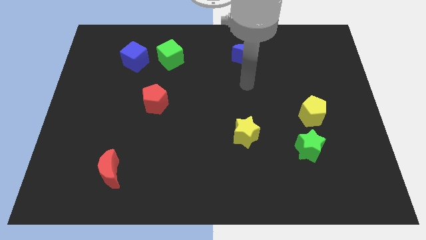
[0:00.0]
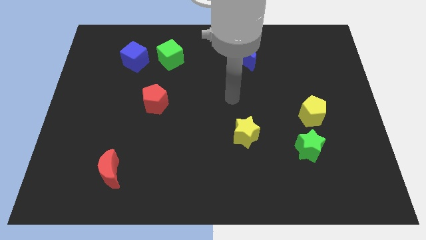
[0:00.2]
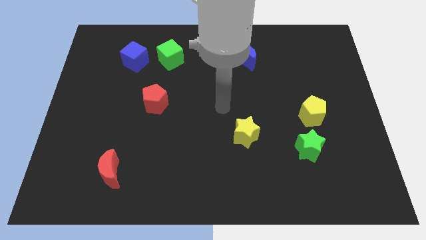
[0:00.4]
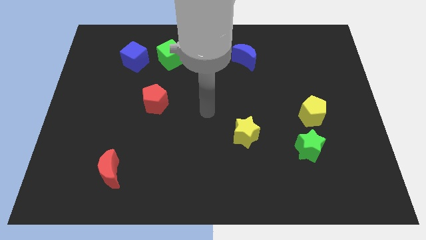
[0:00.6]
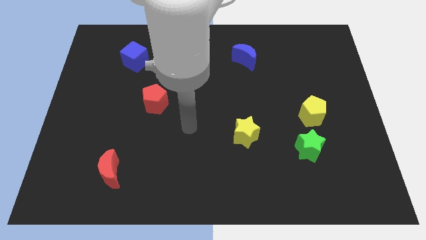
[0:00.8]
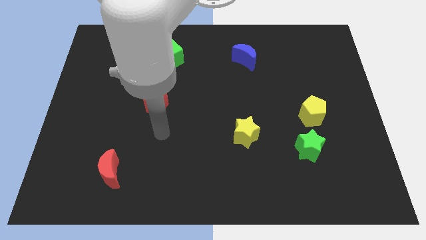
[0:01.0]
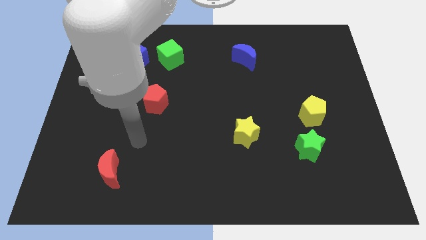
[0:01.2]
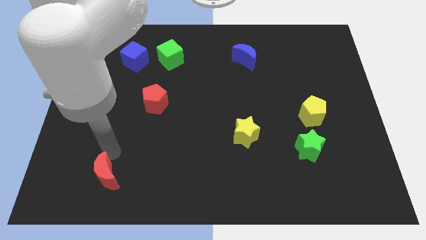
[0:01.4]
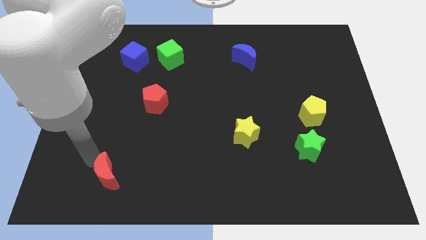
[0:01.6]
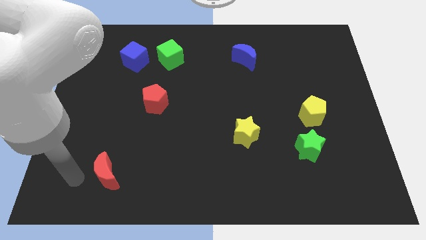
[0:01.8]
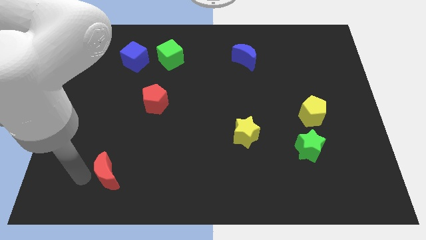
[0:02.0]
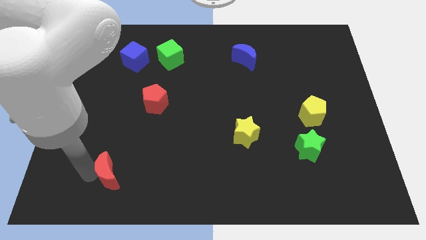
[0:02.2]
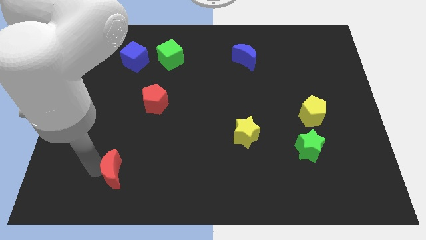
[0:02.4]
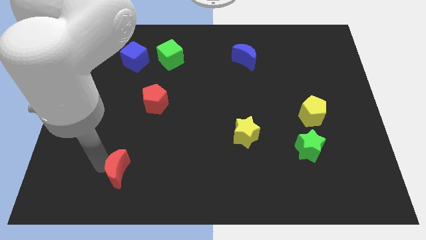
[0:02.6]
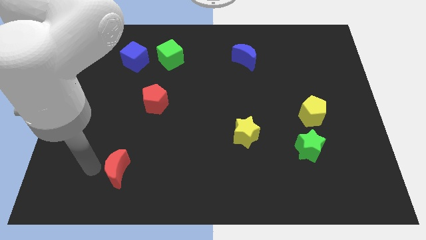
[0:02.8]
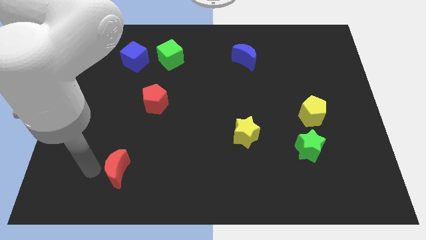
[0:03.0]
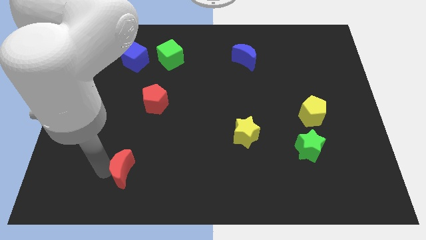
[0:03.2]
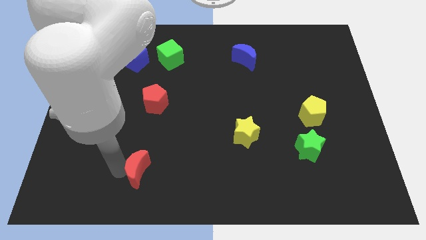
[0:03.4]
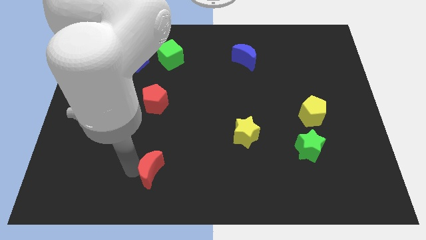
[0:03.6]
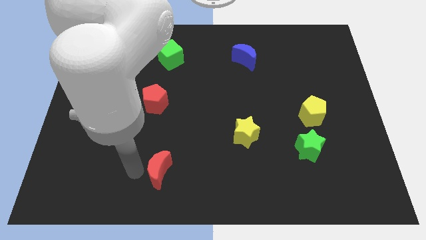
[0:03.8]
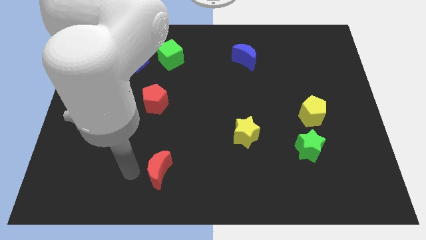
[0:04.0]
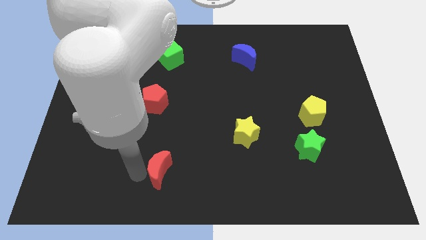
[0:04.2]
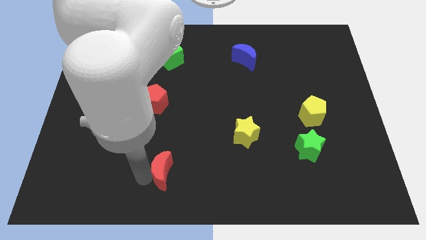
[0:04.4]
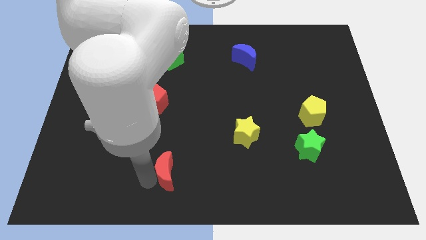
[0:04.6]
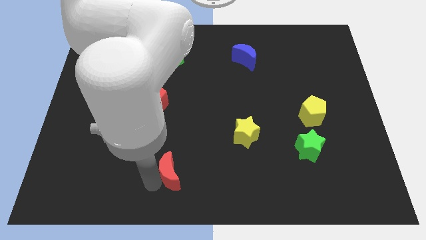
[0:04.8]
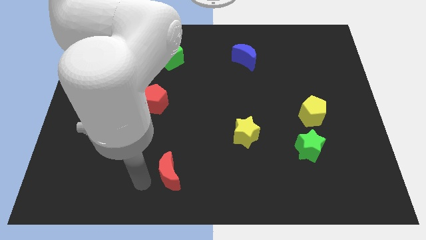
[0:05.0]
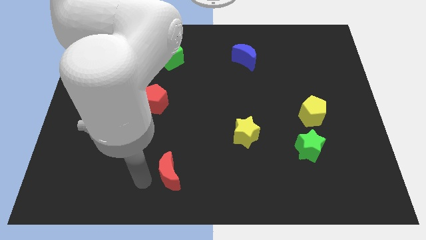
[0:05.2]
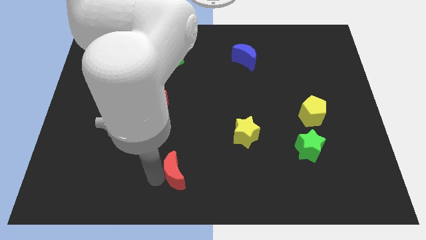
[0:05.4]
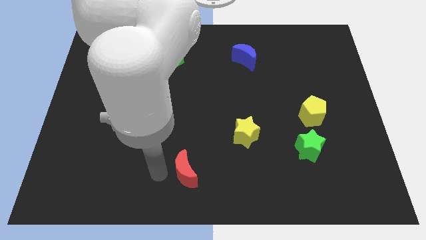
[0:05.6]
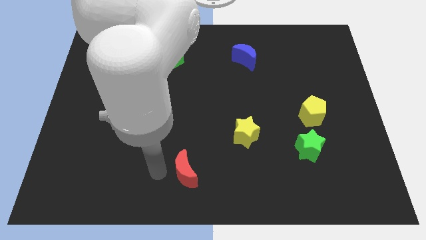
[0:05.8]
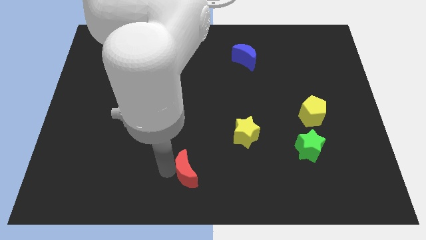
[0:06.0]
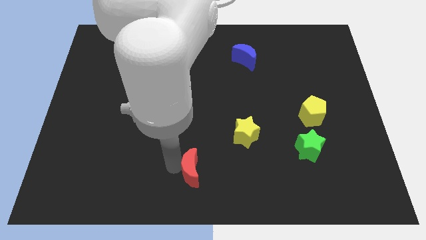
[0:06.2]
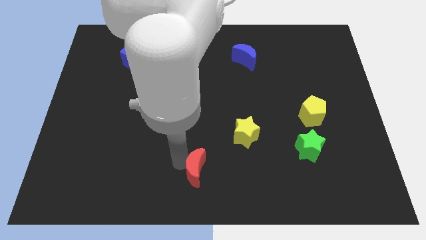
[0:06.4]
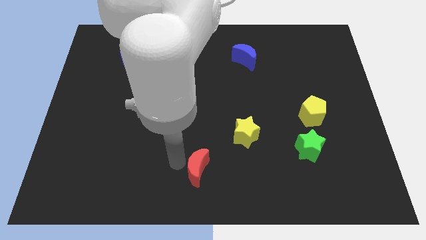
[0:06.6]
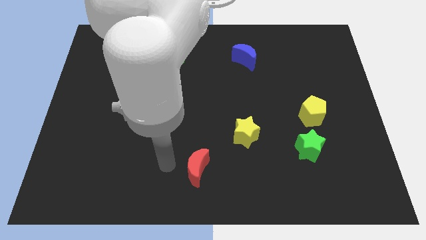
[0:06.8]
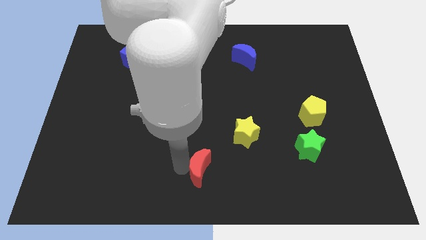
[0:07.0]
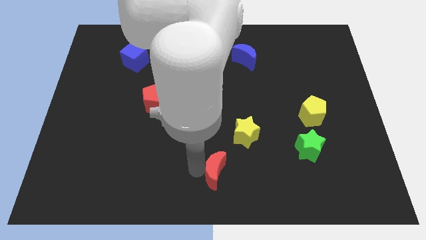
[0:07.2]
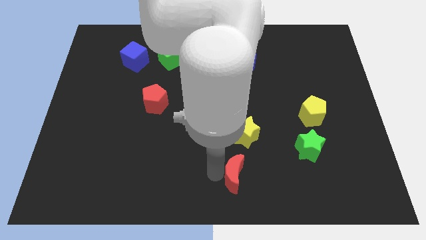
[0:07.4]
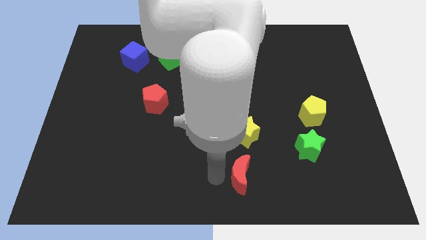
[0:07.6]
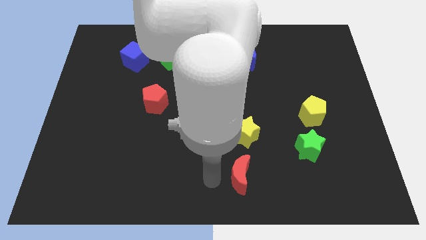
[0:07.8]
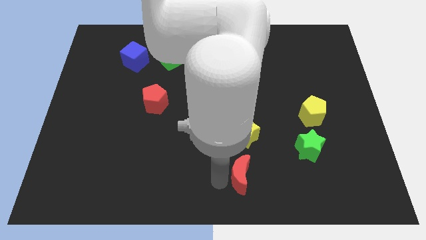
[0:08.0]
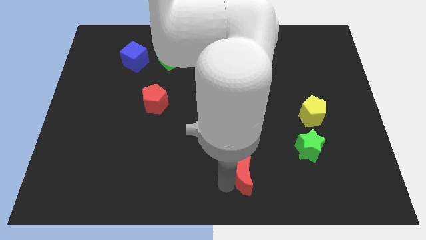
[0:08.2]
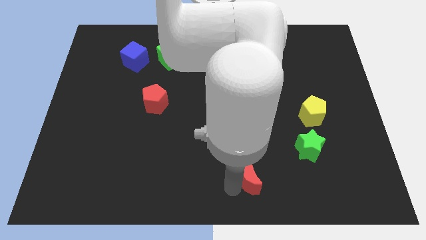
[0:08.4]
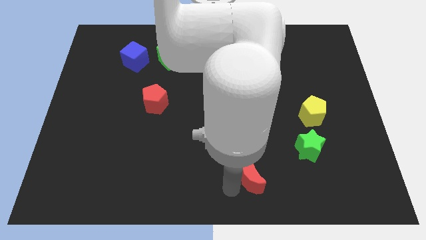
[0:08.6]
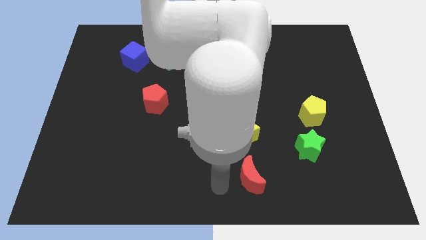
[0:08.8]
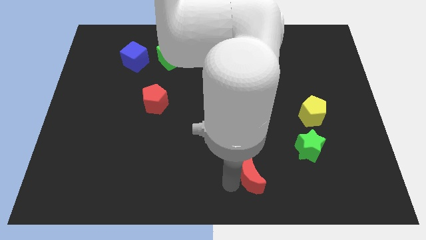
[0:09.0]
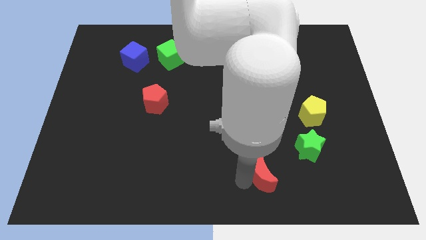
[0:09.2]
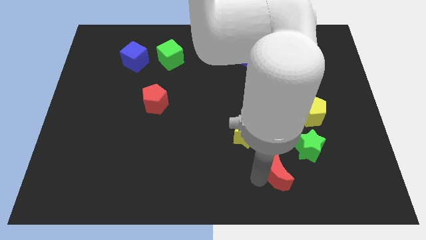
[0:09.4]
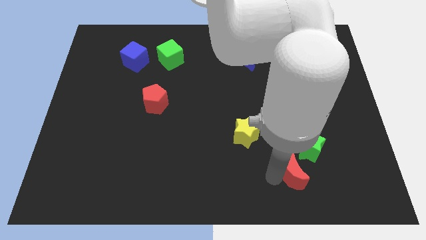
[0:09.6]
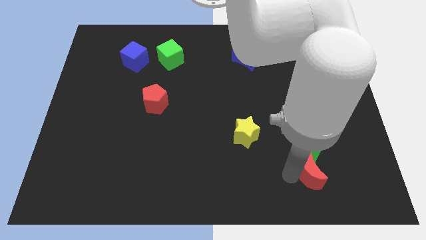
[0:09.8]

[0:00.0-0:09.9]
move the red moon to the bottom right side of the green star

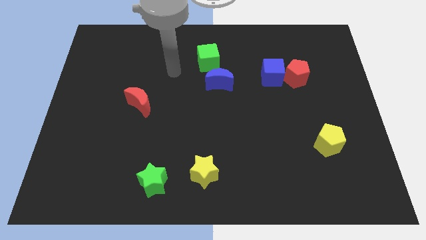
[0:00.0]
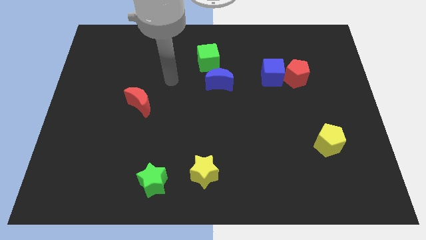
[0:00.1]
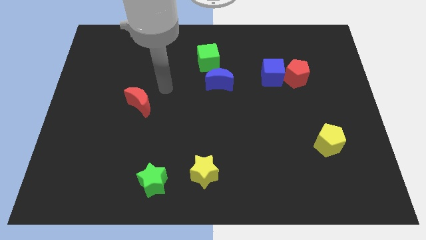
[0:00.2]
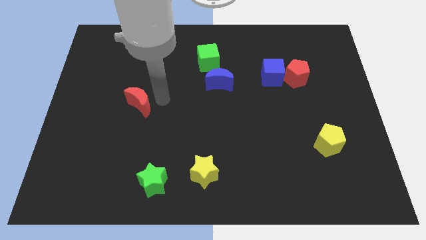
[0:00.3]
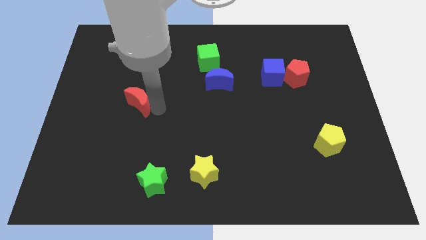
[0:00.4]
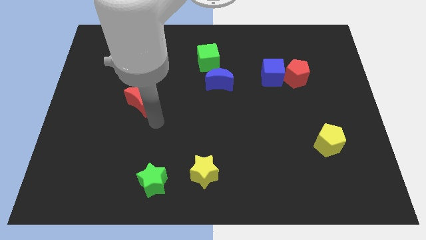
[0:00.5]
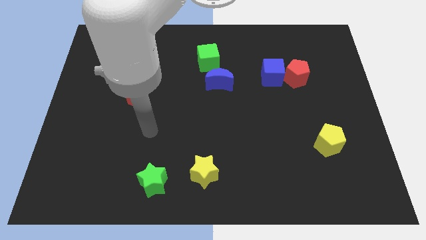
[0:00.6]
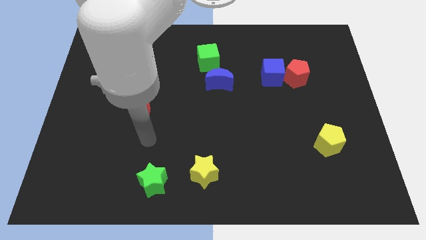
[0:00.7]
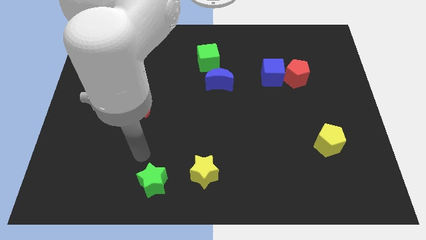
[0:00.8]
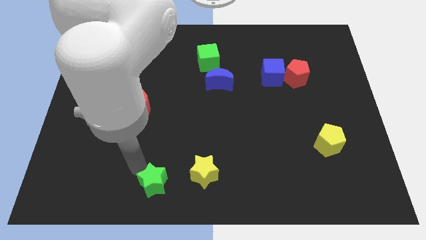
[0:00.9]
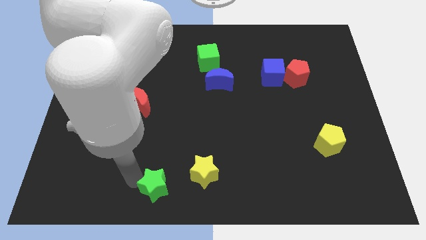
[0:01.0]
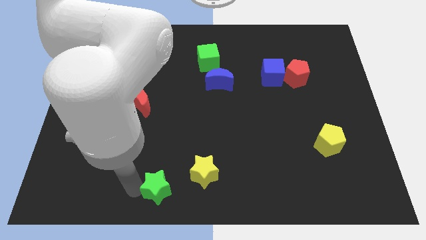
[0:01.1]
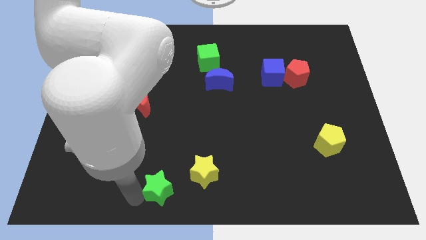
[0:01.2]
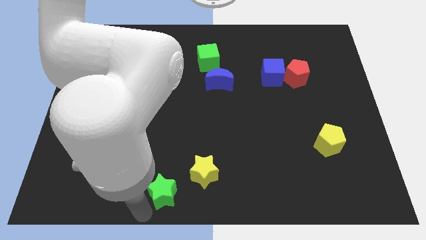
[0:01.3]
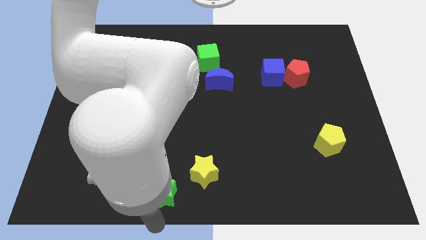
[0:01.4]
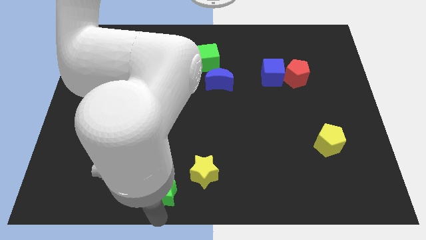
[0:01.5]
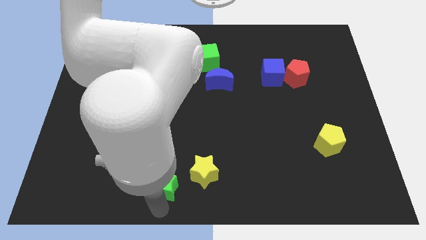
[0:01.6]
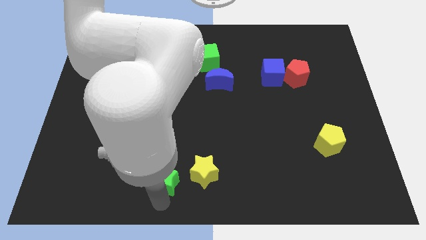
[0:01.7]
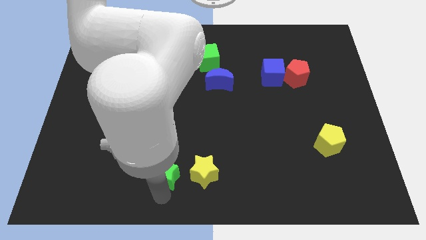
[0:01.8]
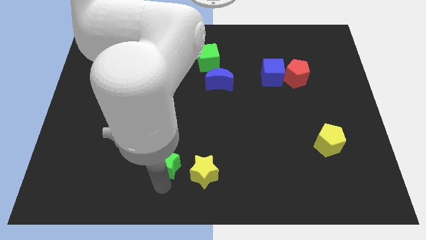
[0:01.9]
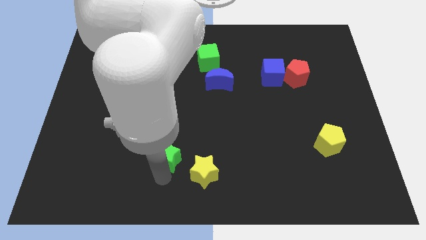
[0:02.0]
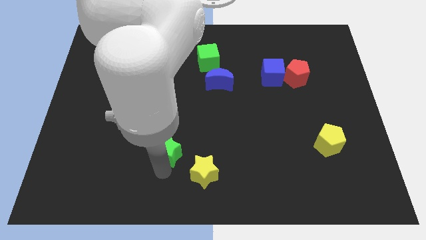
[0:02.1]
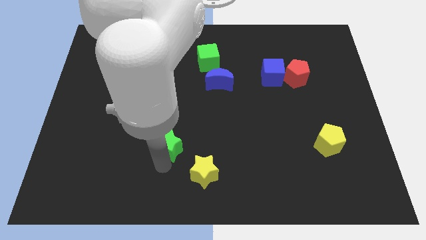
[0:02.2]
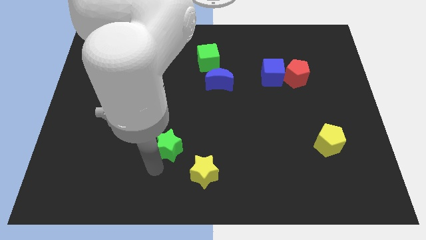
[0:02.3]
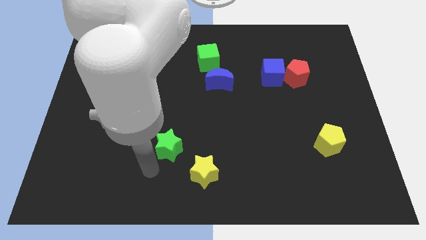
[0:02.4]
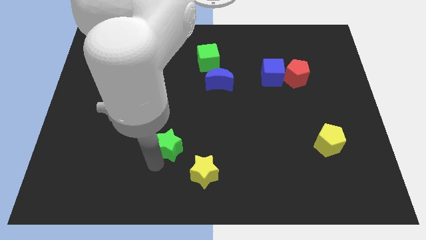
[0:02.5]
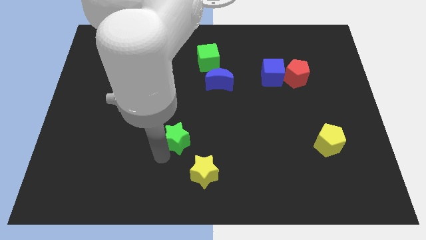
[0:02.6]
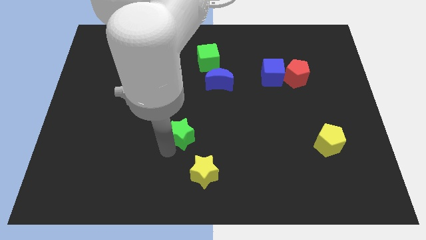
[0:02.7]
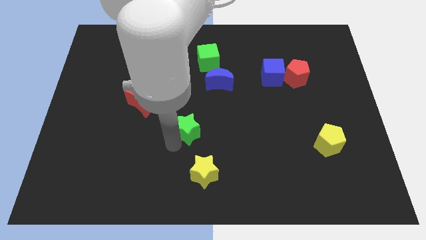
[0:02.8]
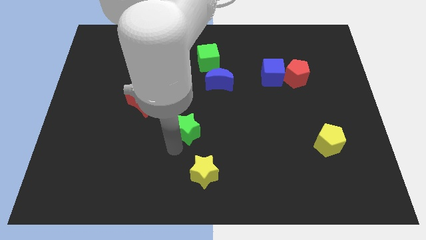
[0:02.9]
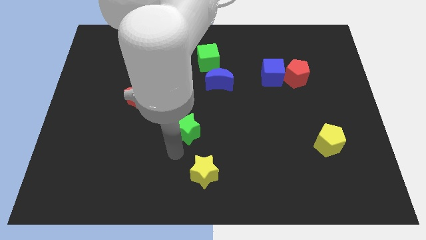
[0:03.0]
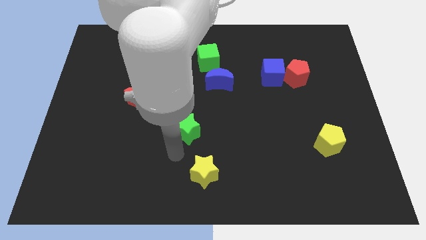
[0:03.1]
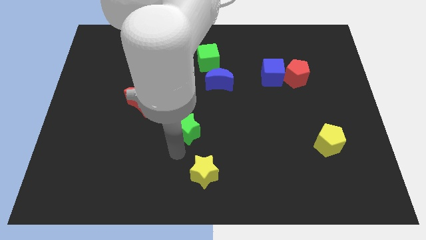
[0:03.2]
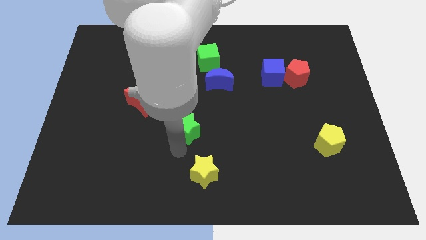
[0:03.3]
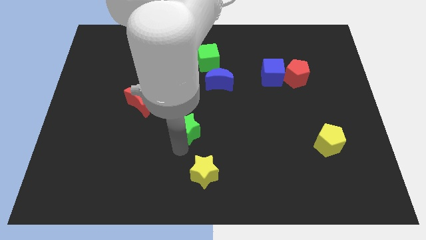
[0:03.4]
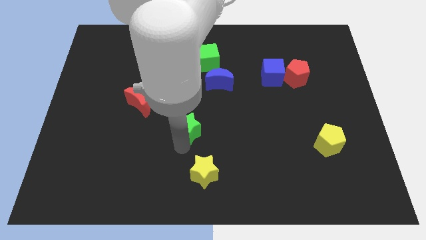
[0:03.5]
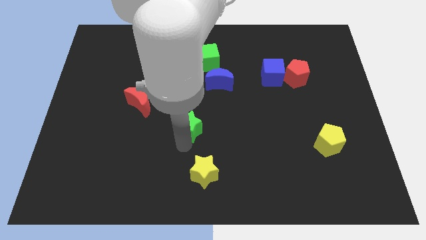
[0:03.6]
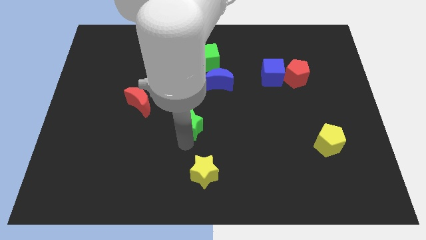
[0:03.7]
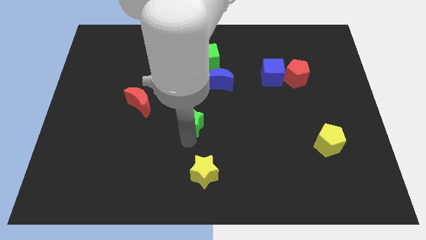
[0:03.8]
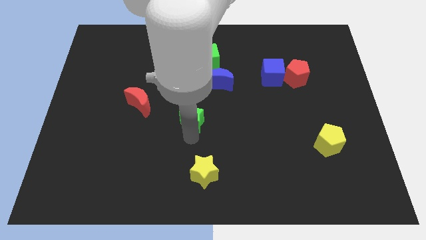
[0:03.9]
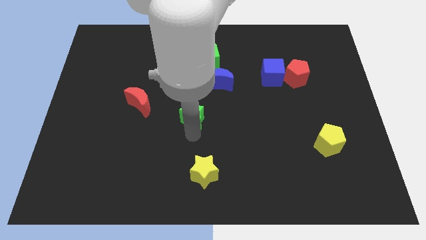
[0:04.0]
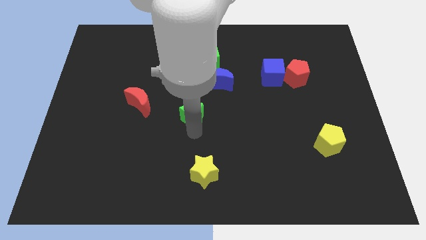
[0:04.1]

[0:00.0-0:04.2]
put the green star diagonally down and to the left of the blue moon
